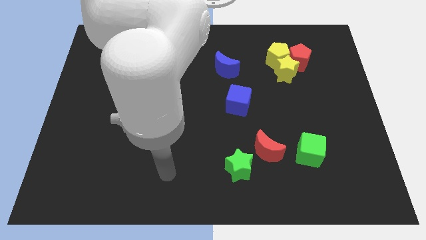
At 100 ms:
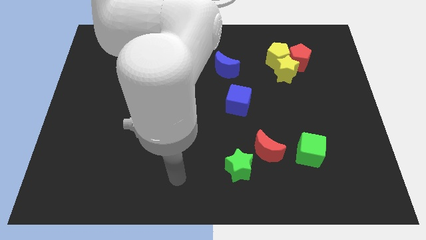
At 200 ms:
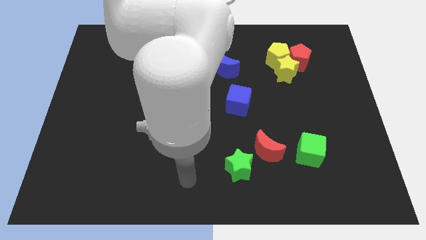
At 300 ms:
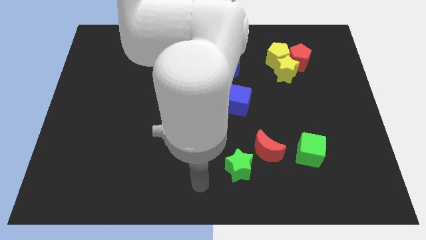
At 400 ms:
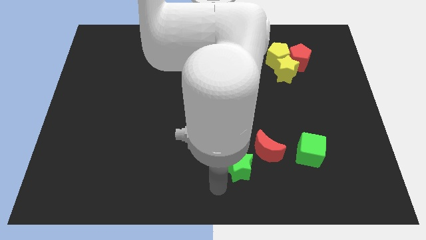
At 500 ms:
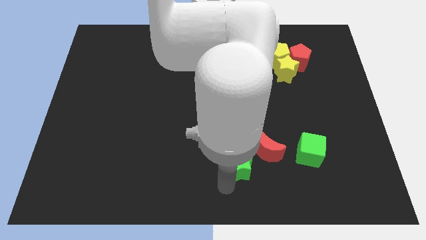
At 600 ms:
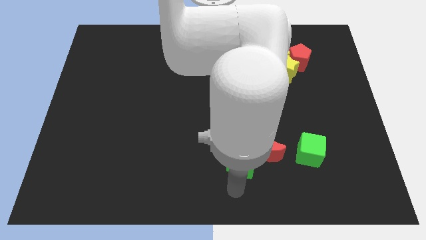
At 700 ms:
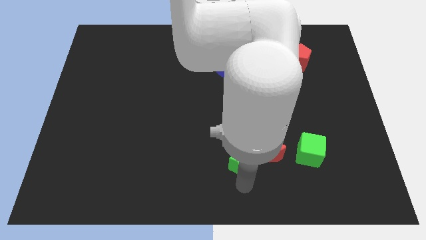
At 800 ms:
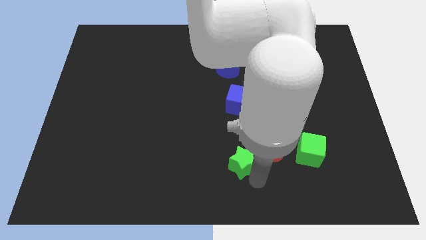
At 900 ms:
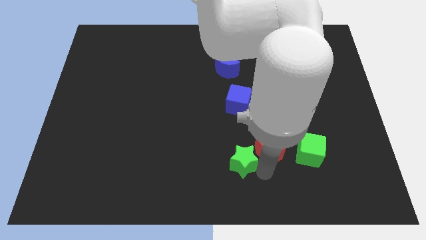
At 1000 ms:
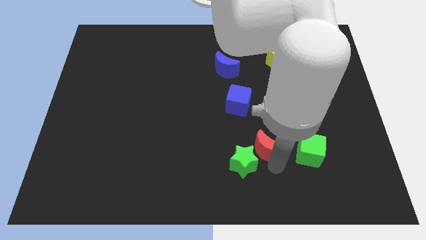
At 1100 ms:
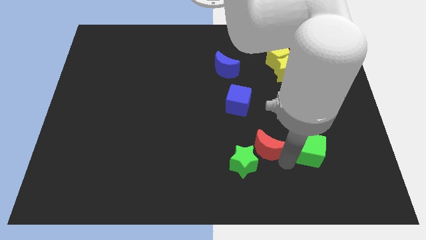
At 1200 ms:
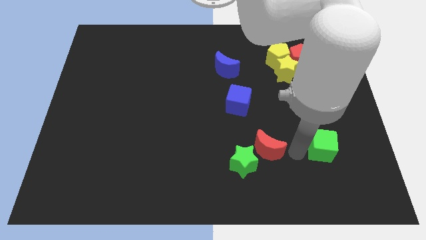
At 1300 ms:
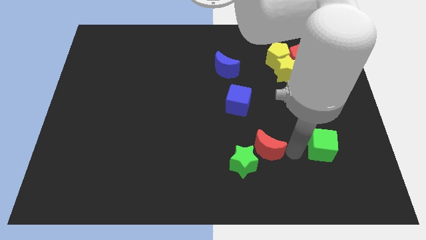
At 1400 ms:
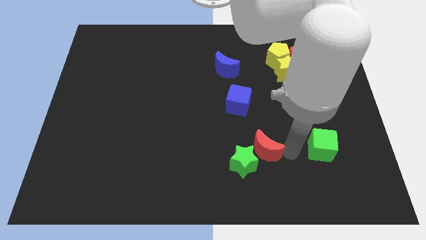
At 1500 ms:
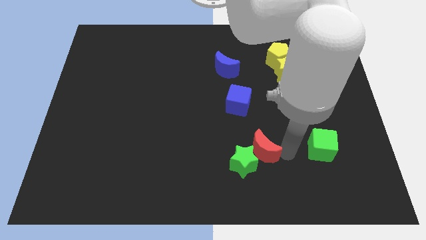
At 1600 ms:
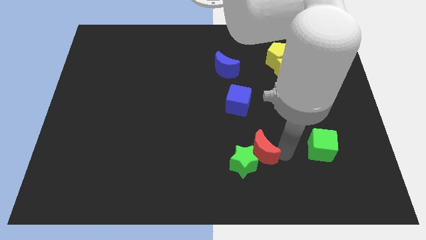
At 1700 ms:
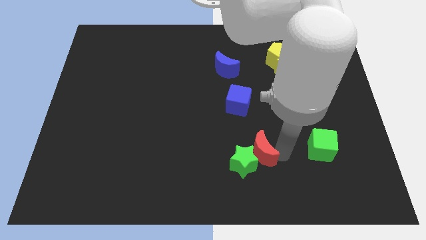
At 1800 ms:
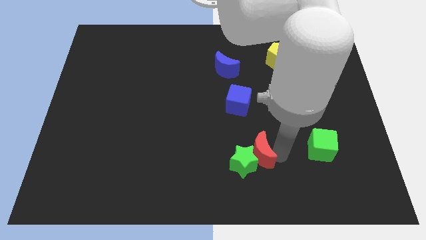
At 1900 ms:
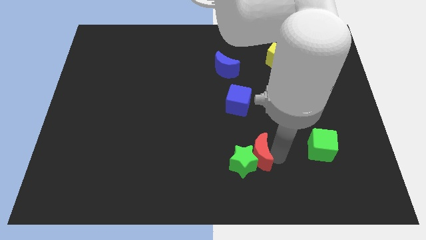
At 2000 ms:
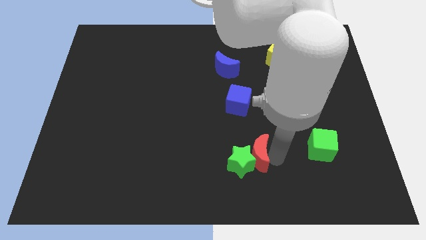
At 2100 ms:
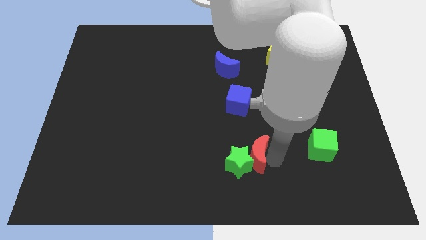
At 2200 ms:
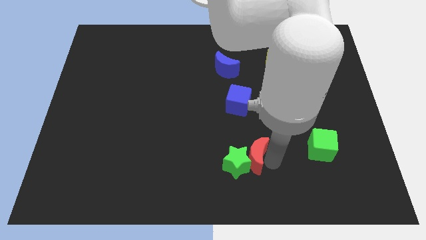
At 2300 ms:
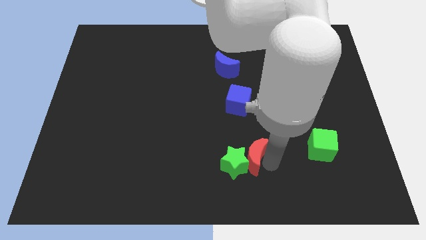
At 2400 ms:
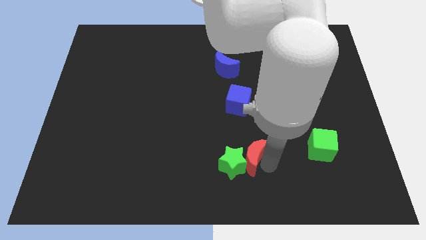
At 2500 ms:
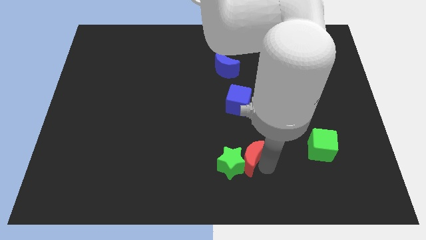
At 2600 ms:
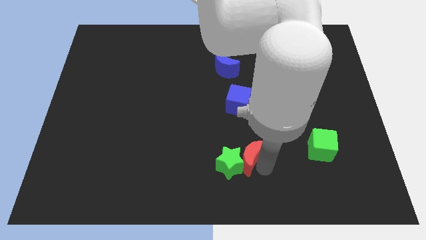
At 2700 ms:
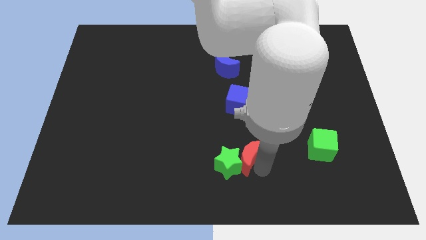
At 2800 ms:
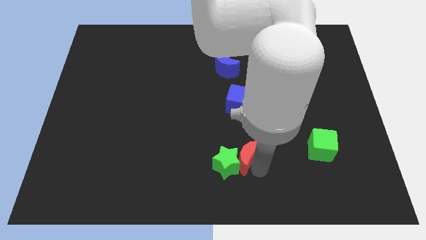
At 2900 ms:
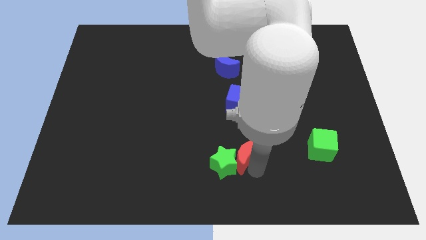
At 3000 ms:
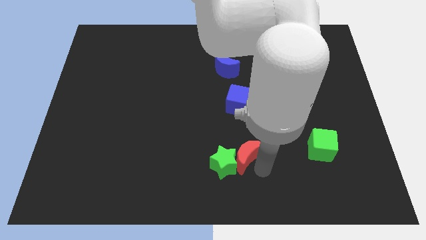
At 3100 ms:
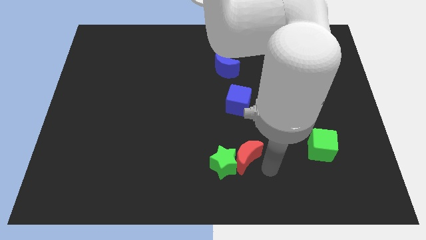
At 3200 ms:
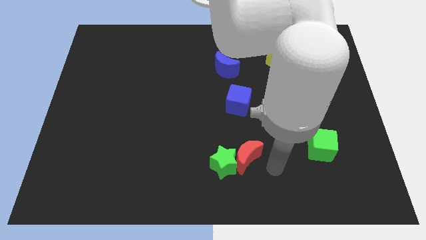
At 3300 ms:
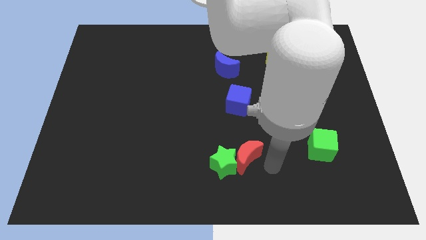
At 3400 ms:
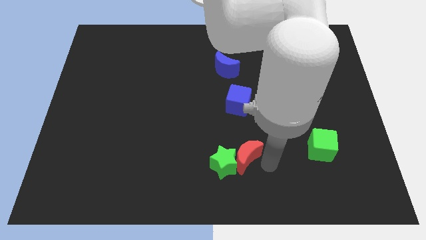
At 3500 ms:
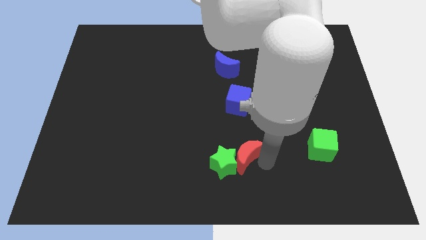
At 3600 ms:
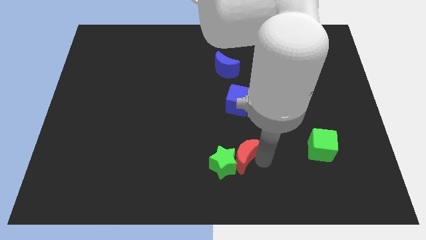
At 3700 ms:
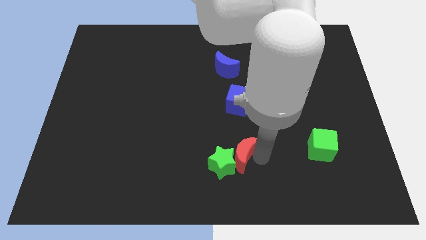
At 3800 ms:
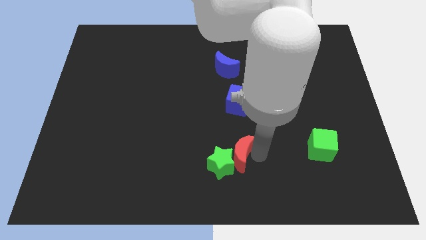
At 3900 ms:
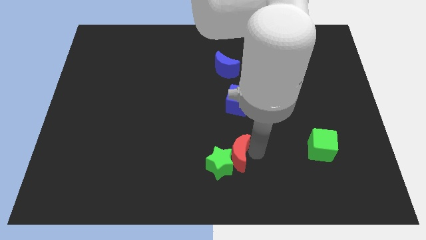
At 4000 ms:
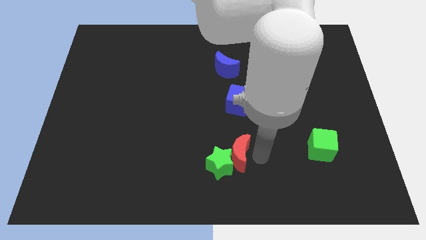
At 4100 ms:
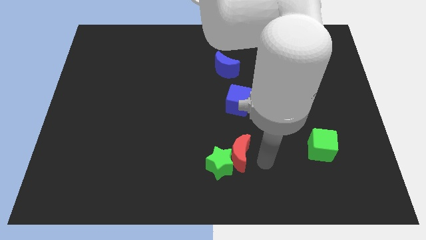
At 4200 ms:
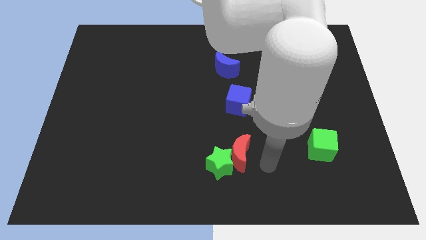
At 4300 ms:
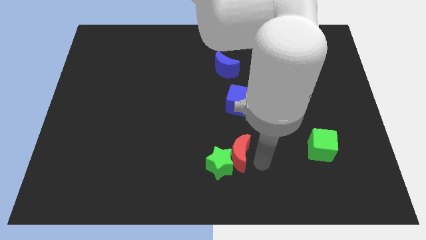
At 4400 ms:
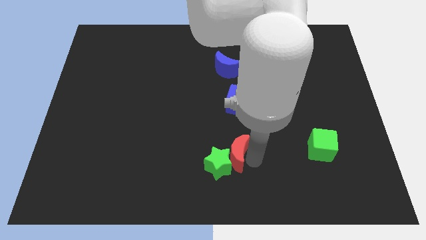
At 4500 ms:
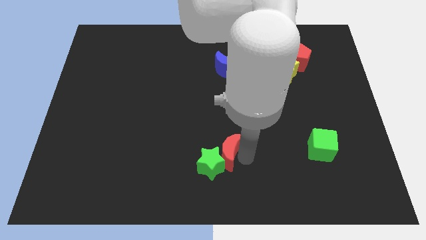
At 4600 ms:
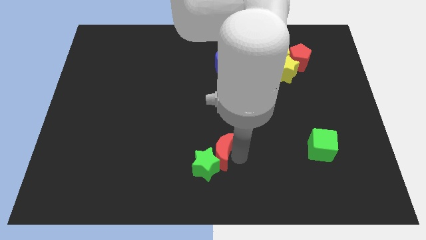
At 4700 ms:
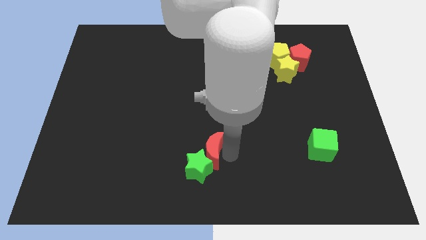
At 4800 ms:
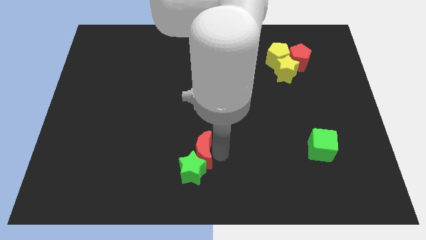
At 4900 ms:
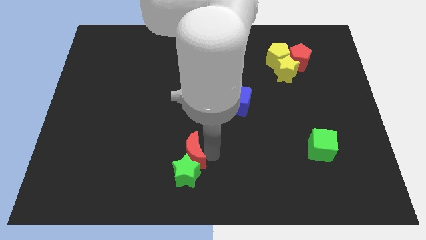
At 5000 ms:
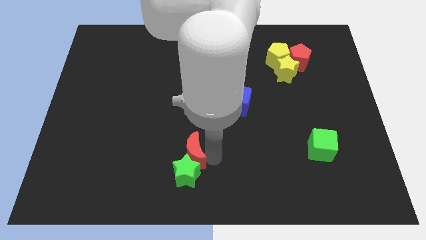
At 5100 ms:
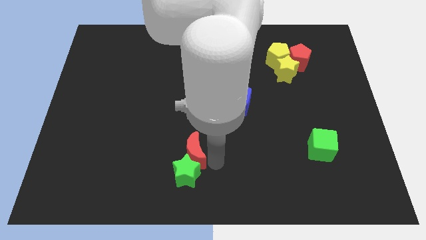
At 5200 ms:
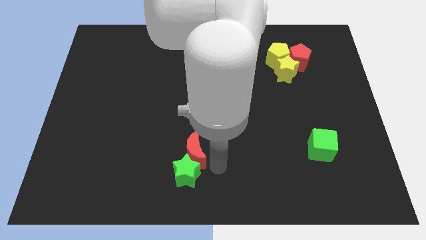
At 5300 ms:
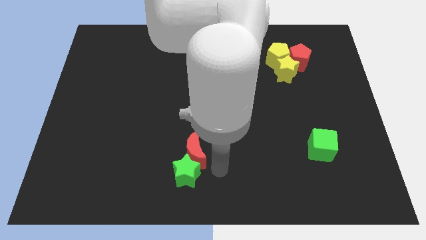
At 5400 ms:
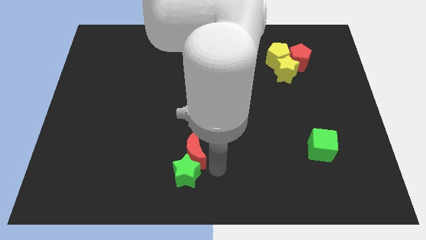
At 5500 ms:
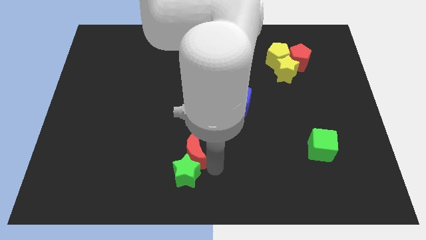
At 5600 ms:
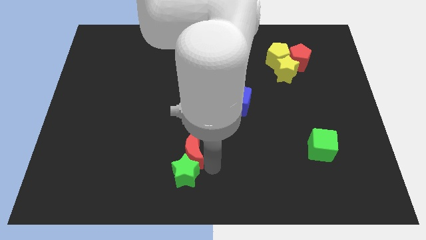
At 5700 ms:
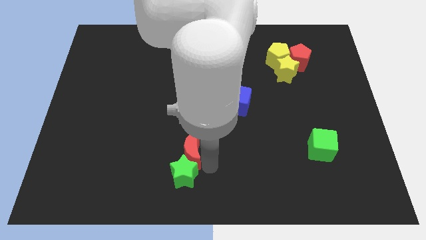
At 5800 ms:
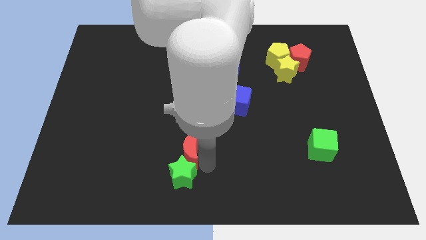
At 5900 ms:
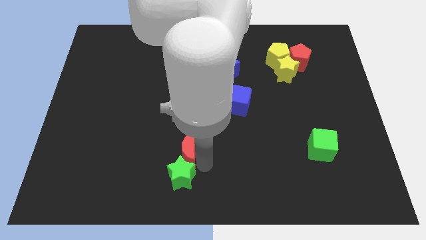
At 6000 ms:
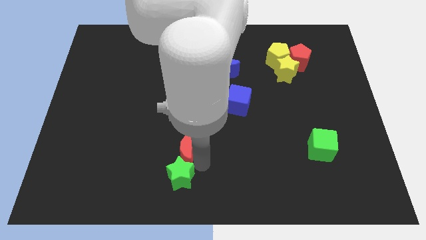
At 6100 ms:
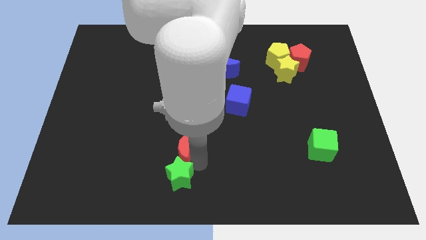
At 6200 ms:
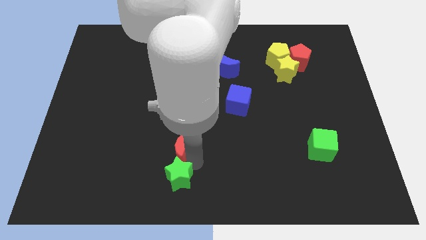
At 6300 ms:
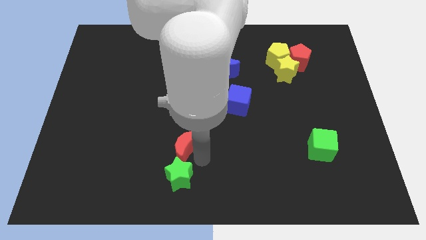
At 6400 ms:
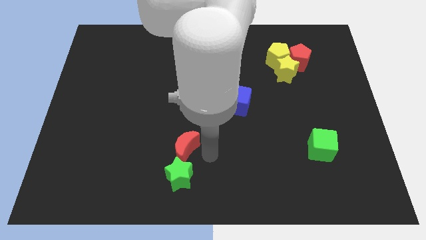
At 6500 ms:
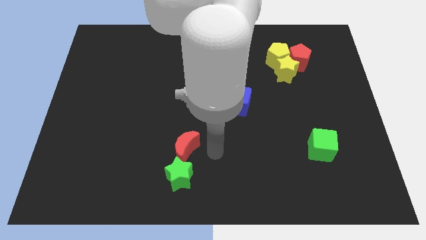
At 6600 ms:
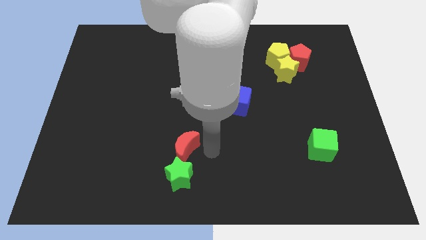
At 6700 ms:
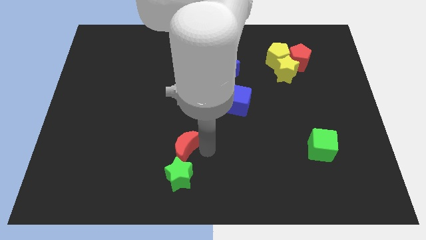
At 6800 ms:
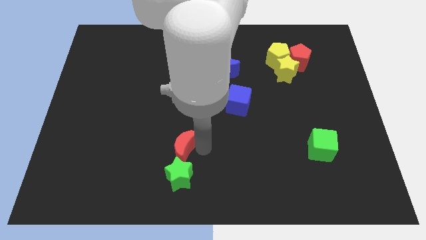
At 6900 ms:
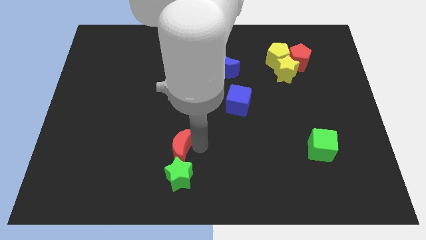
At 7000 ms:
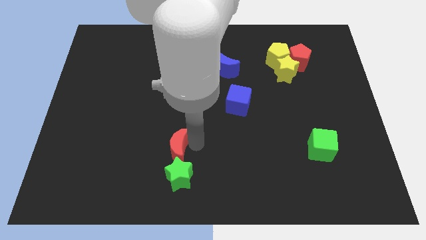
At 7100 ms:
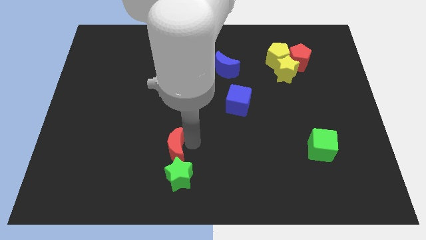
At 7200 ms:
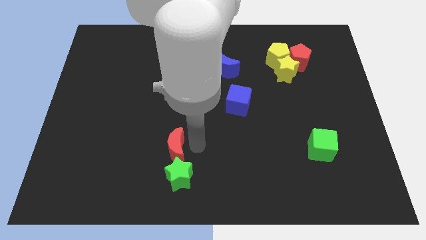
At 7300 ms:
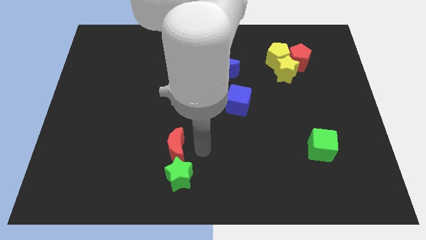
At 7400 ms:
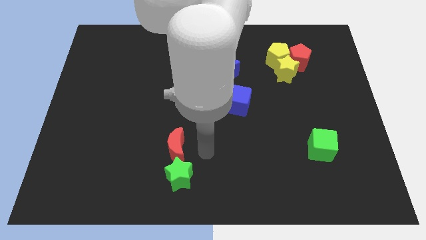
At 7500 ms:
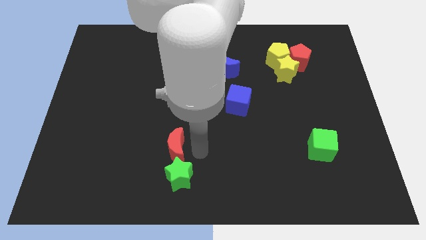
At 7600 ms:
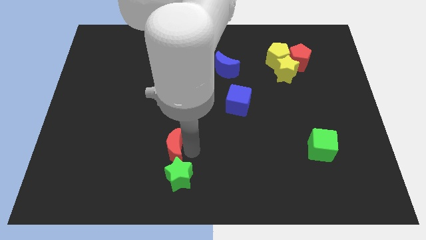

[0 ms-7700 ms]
slide the red moon to the left

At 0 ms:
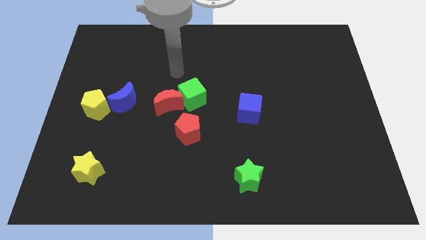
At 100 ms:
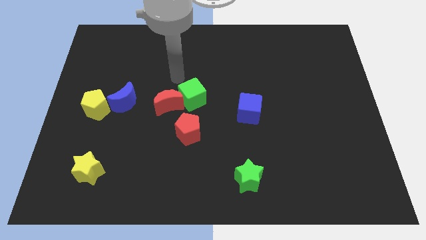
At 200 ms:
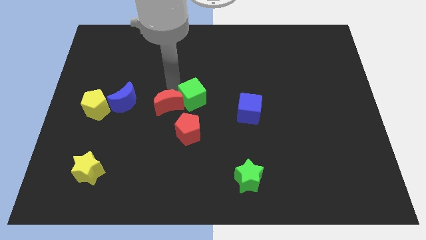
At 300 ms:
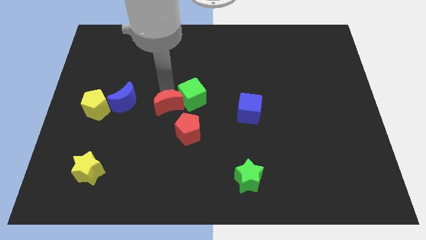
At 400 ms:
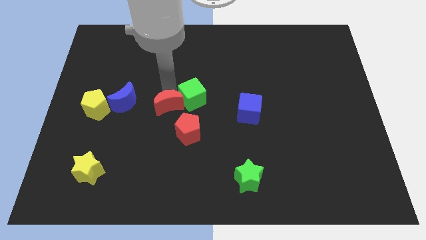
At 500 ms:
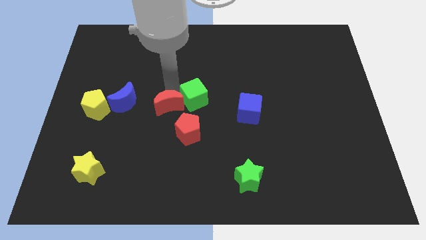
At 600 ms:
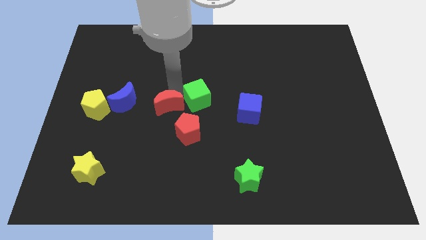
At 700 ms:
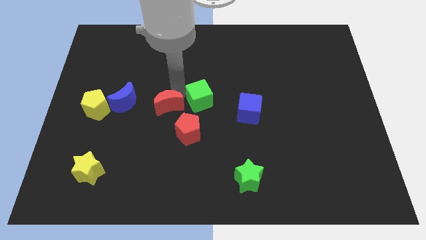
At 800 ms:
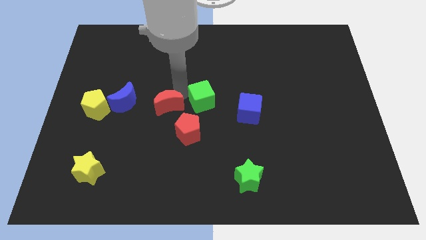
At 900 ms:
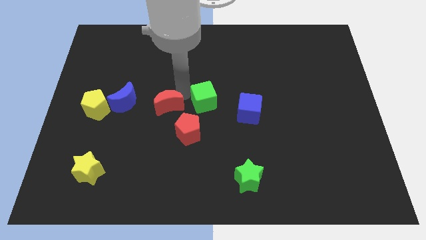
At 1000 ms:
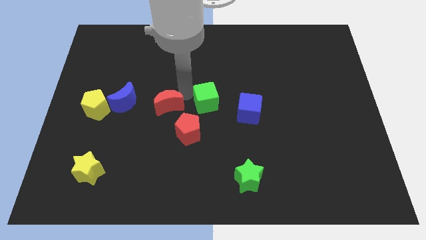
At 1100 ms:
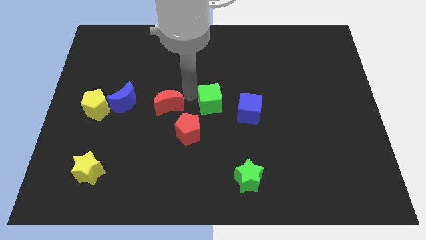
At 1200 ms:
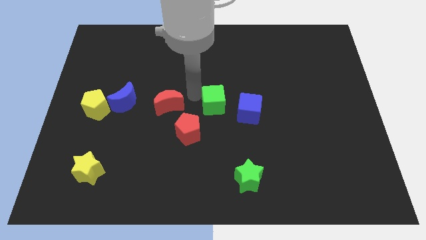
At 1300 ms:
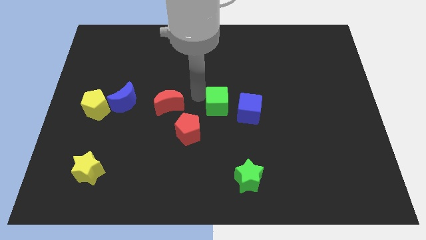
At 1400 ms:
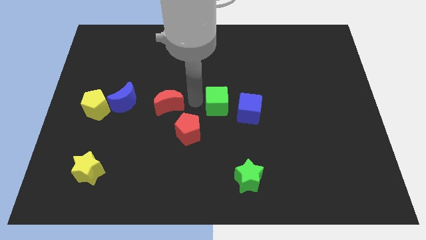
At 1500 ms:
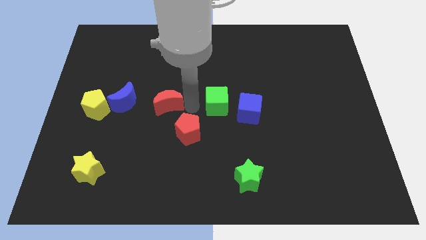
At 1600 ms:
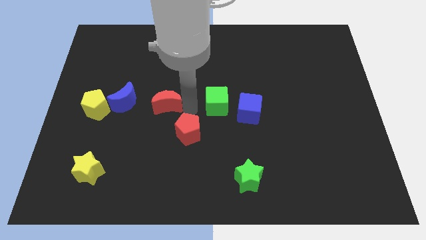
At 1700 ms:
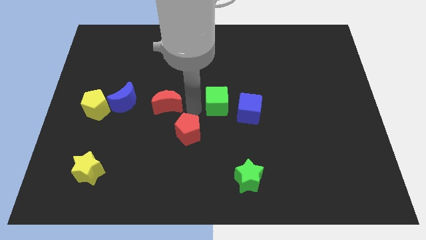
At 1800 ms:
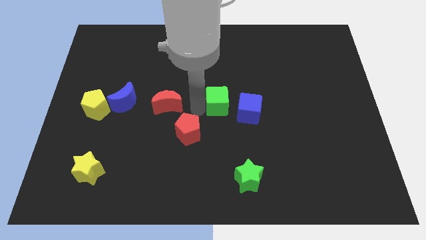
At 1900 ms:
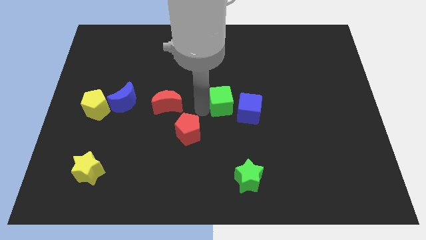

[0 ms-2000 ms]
push the green cube slightly to the right
